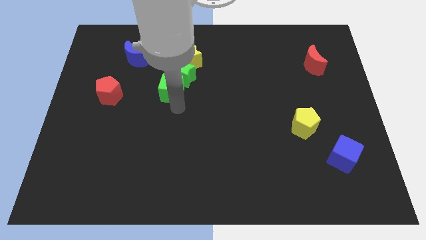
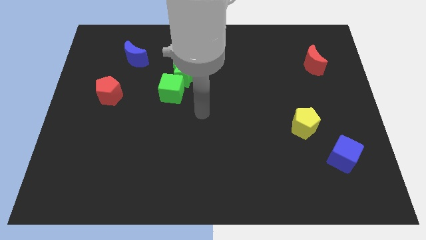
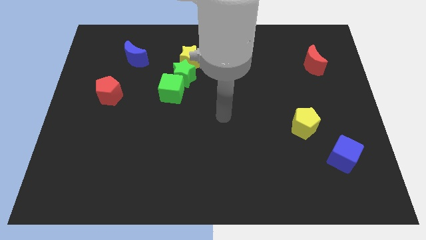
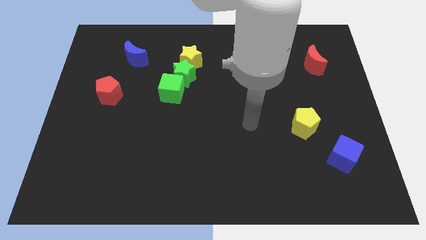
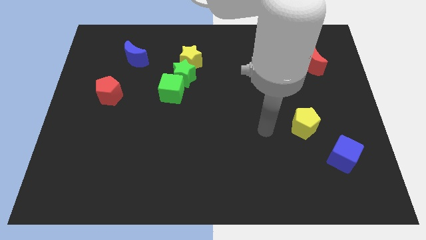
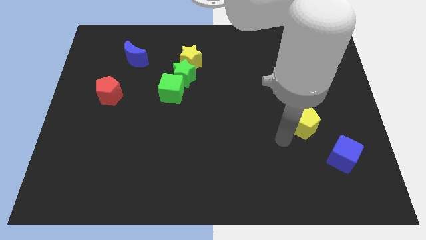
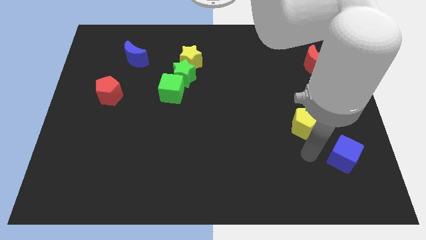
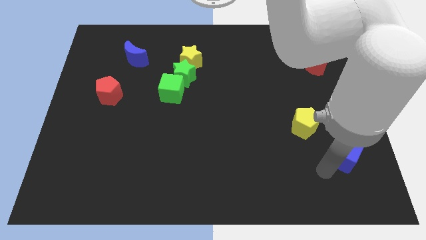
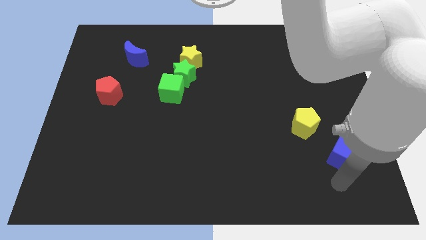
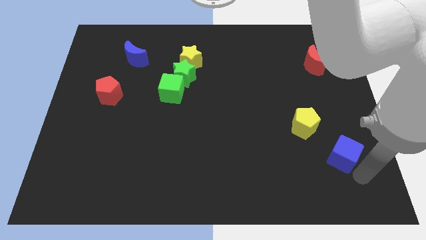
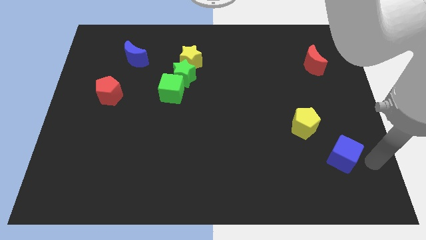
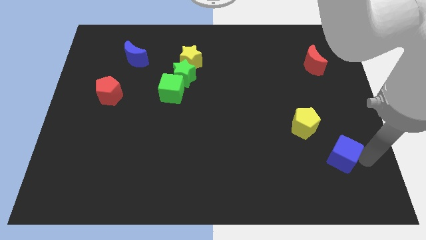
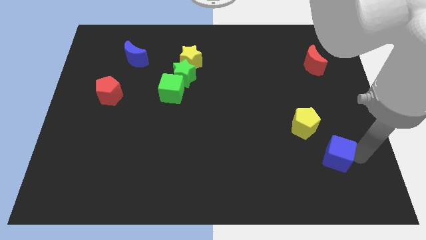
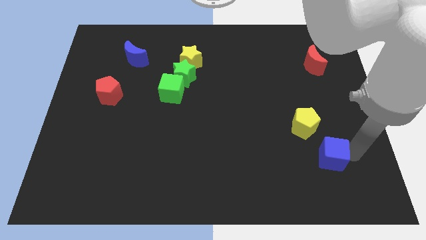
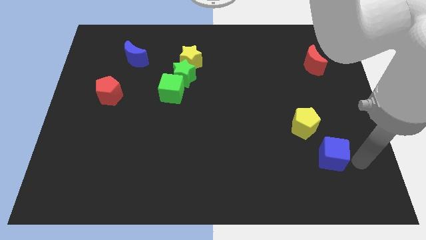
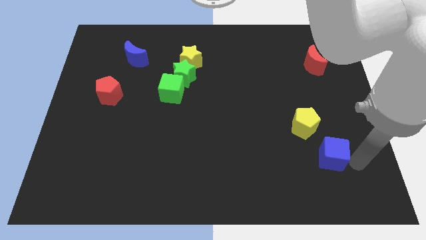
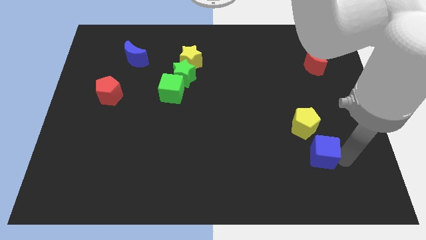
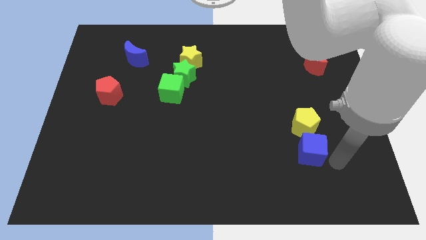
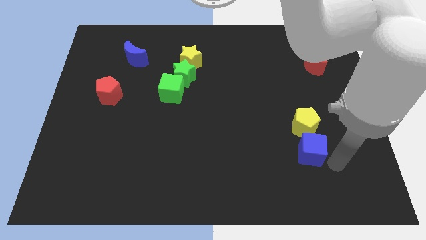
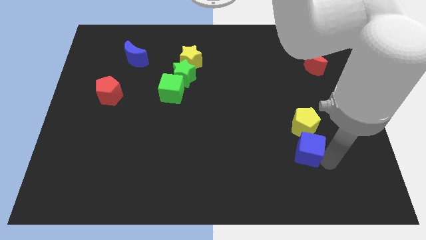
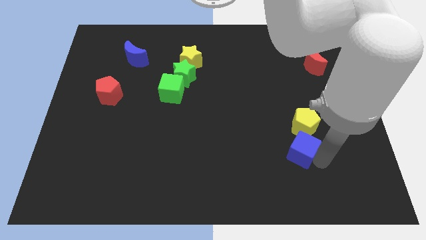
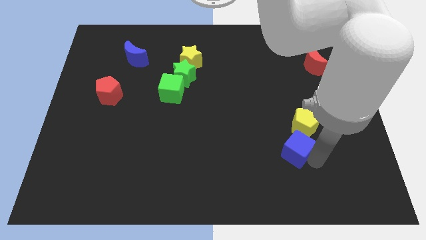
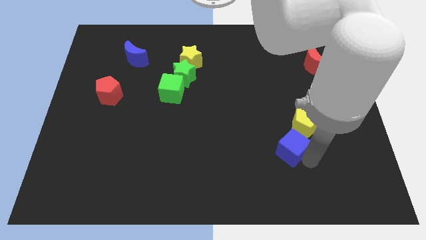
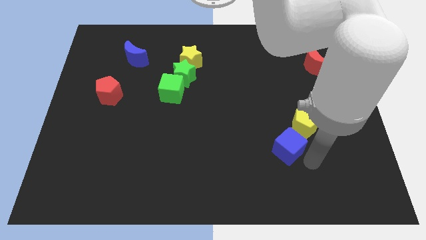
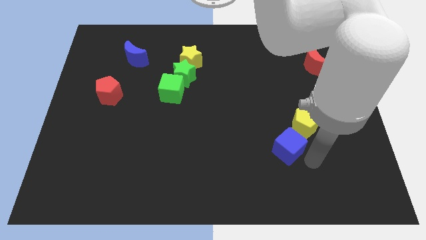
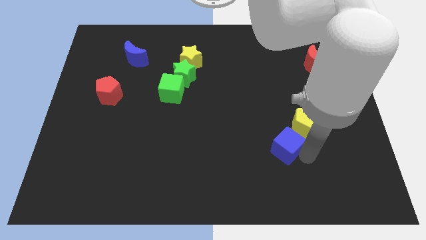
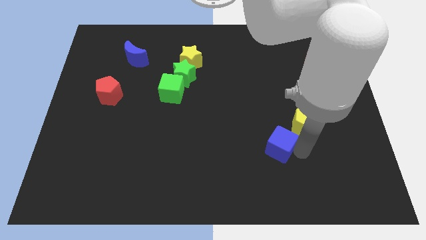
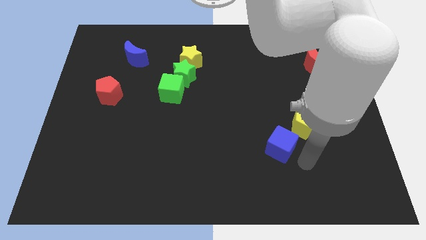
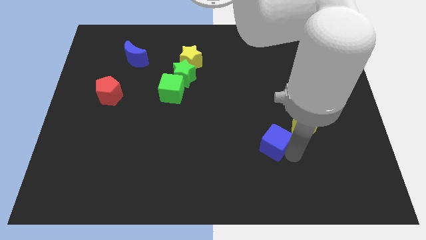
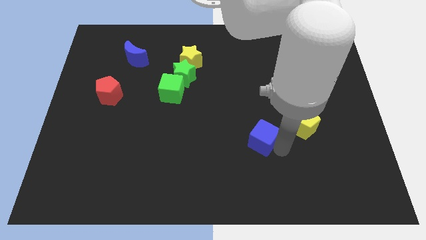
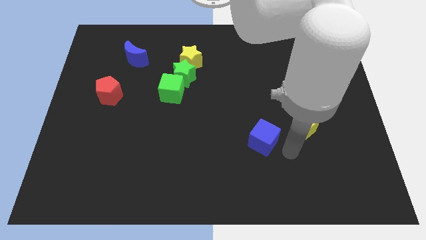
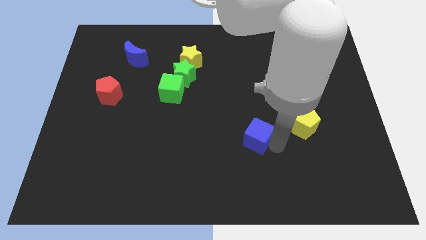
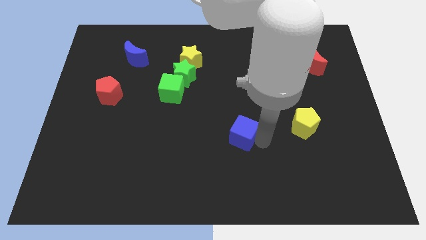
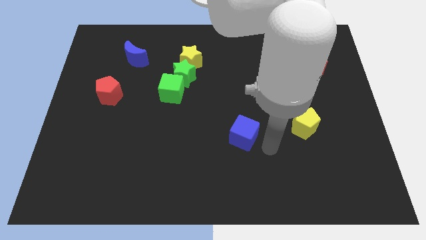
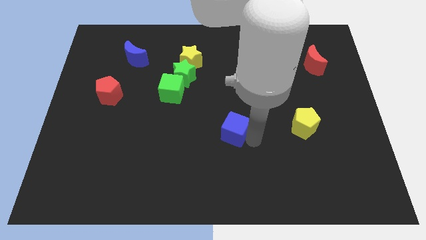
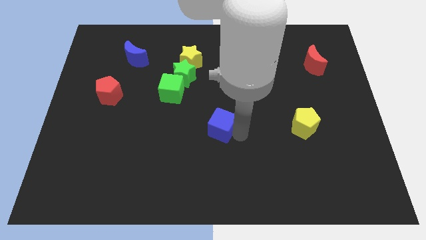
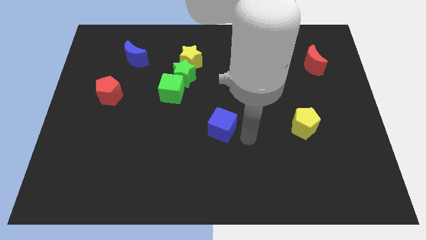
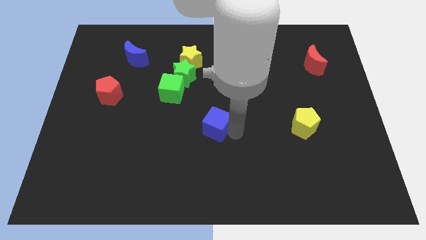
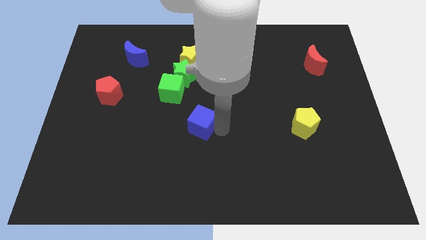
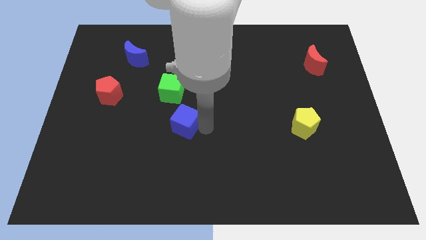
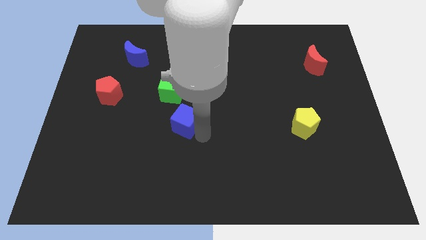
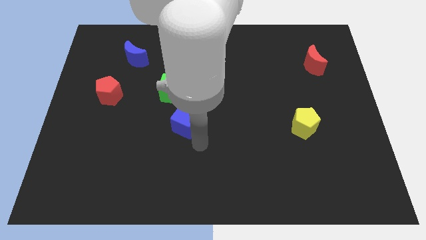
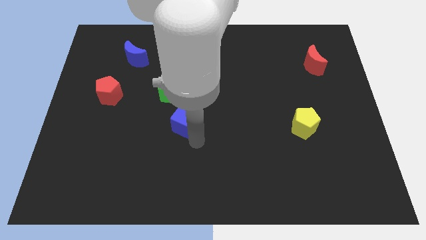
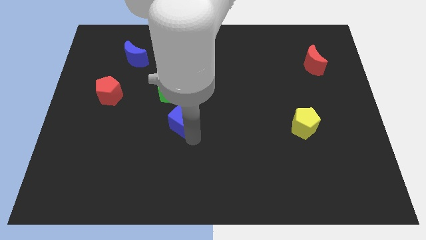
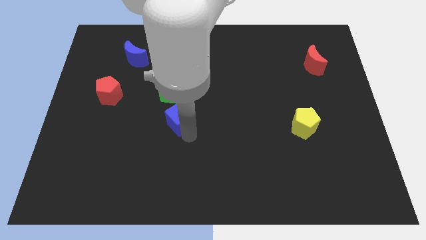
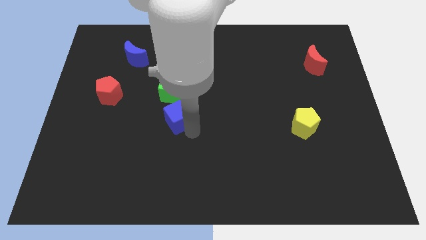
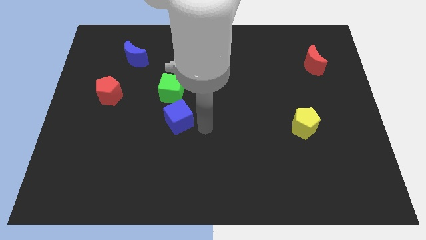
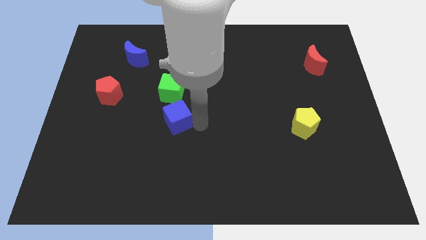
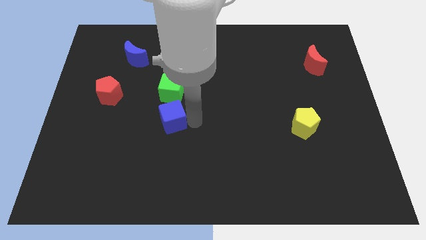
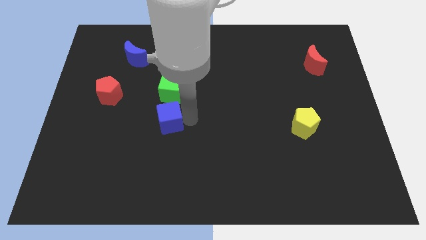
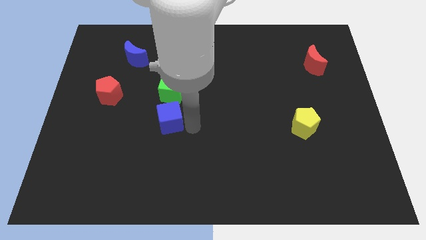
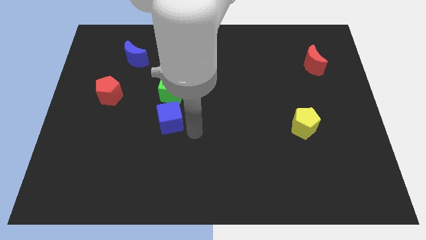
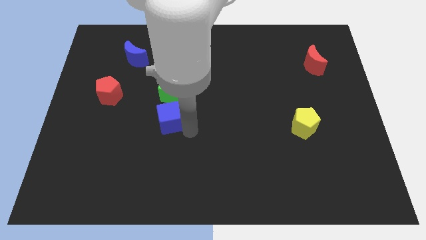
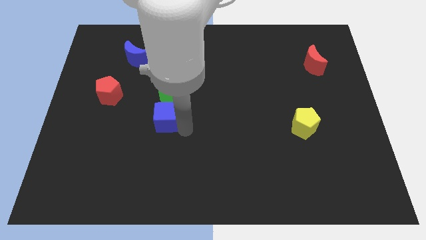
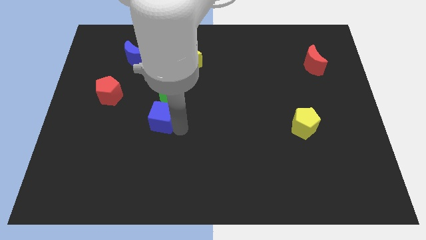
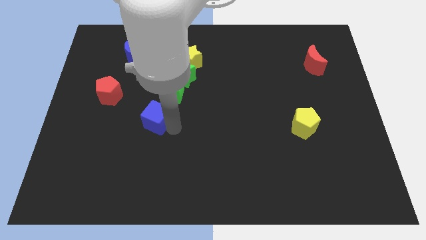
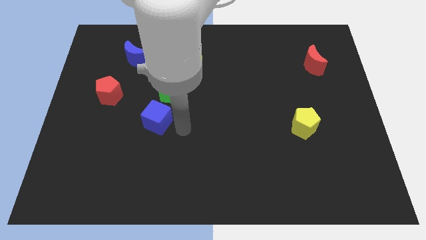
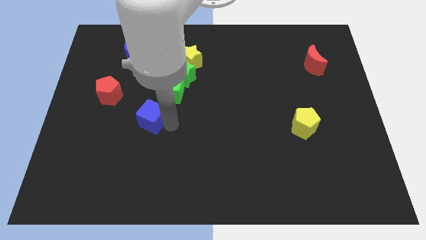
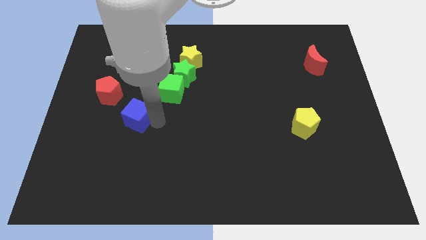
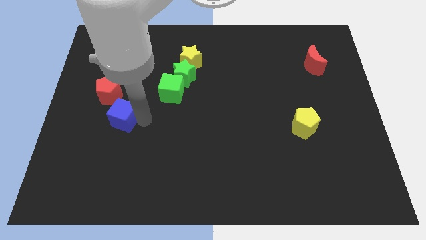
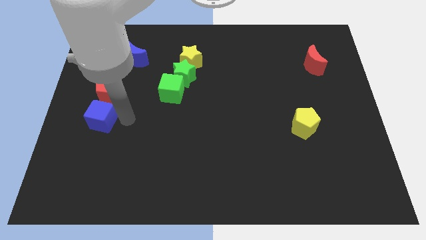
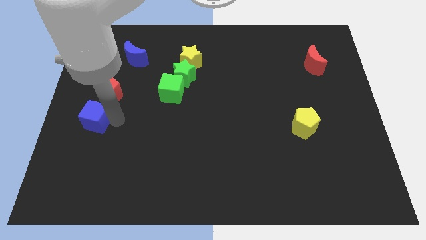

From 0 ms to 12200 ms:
put the blue cube to the left side of the board

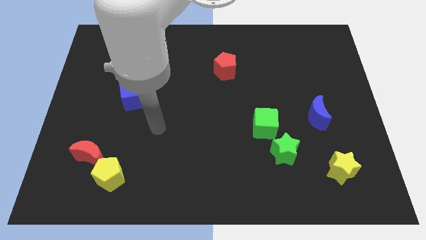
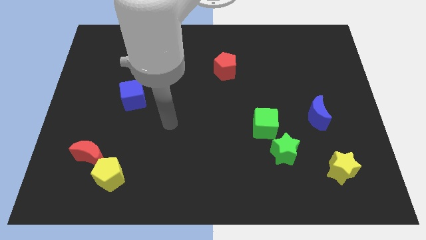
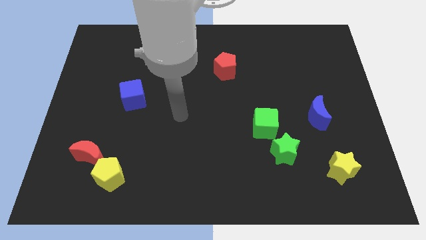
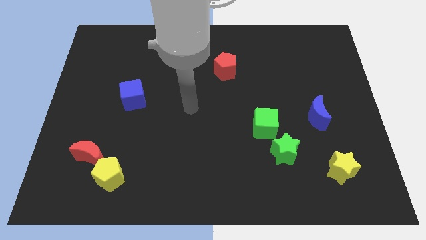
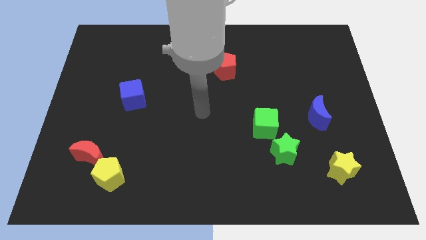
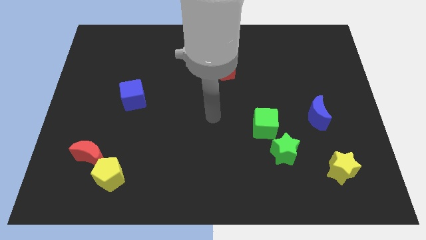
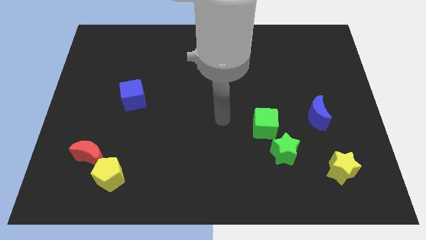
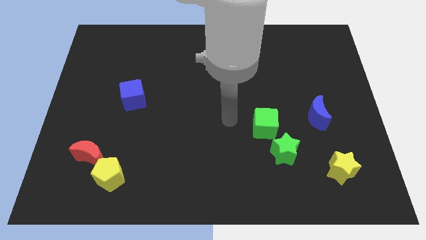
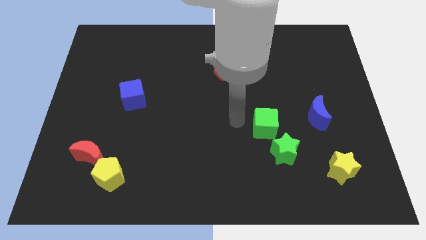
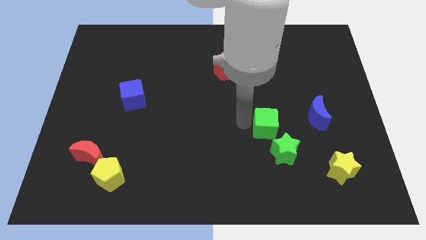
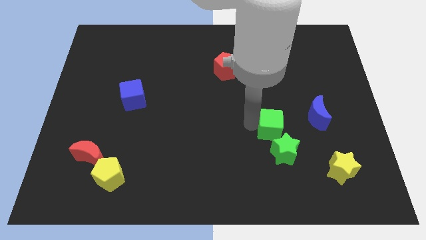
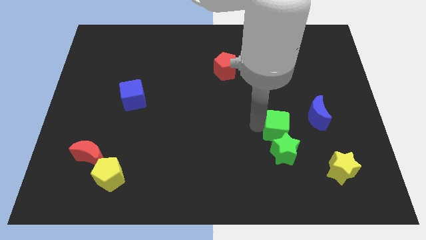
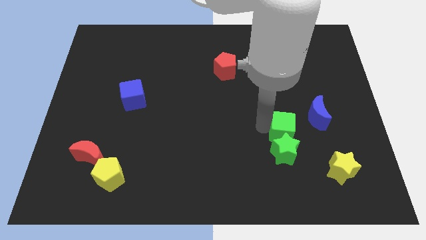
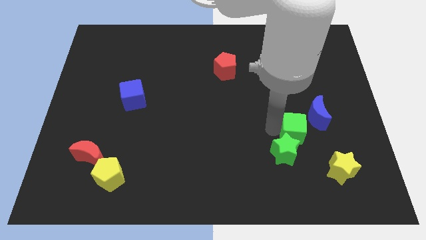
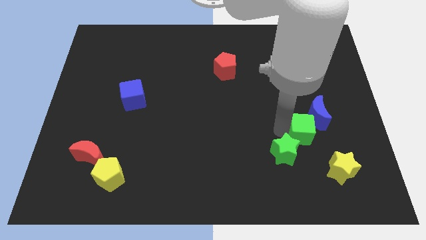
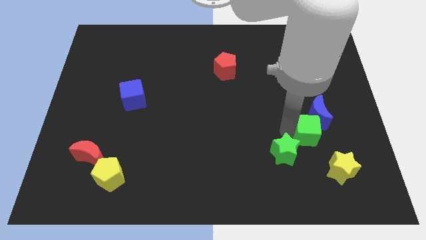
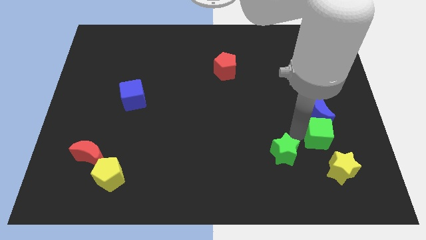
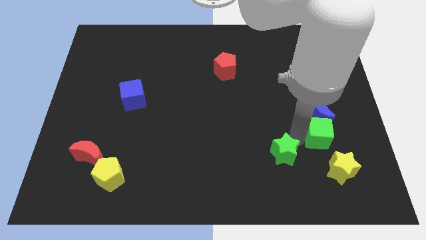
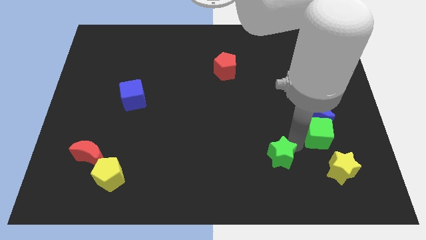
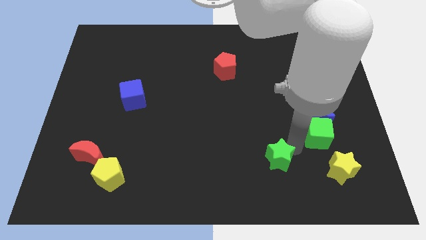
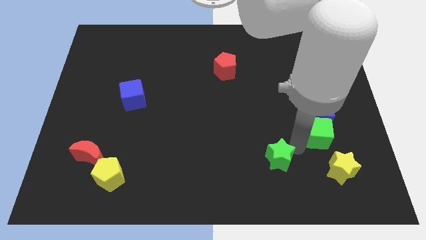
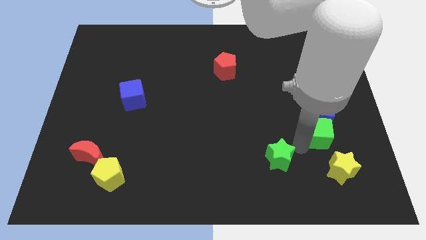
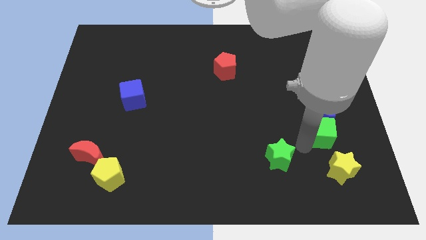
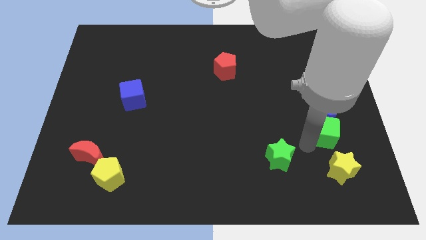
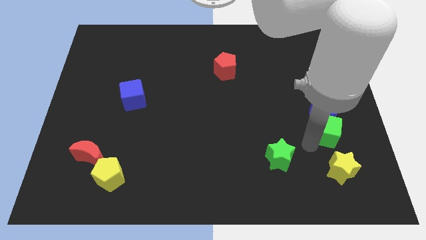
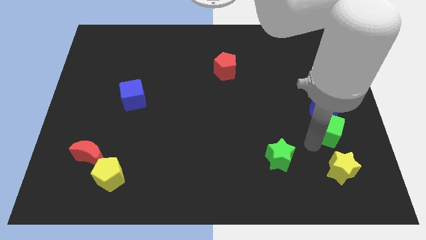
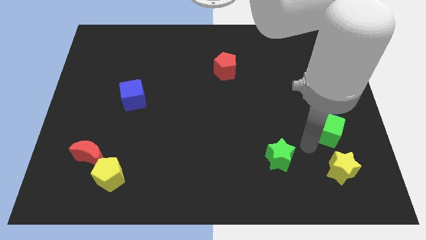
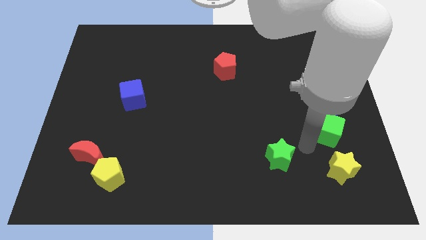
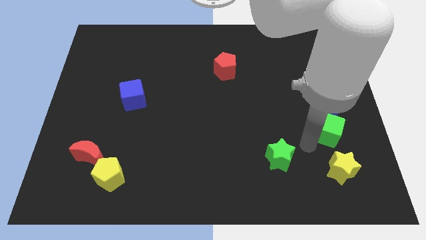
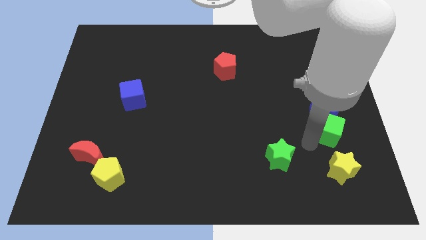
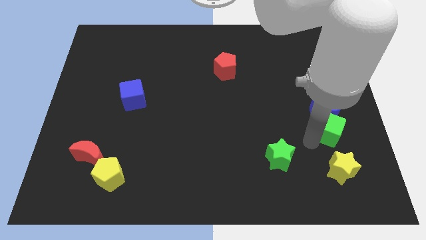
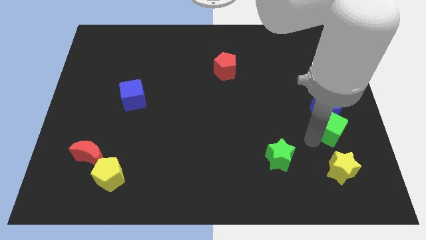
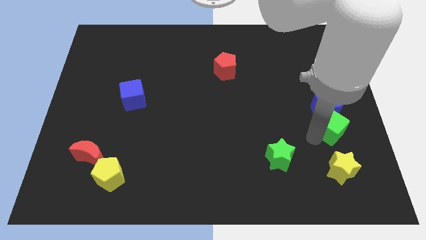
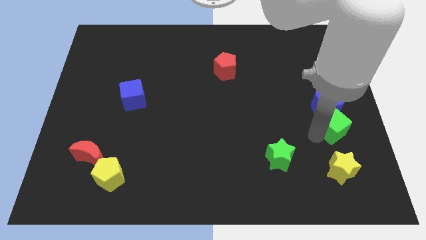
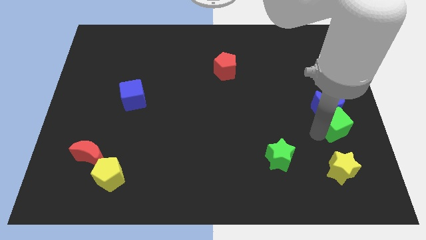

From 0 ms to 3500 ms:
put the green cube to the center right
